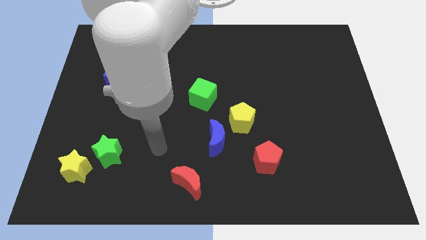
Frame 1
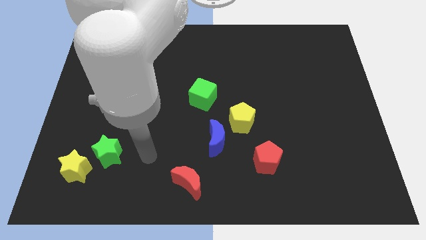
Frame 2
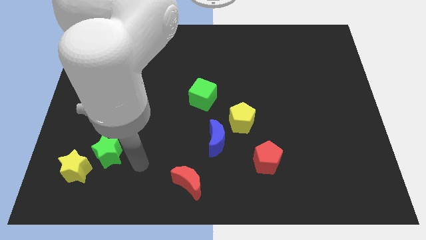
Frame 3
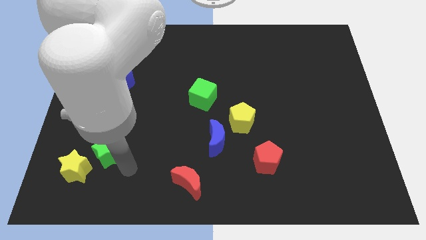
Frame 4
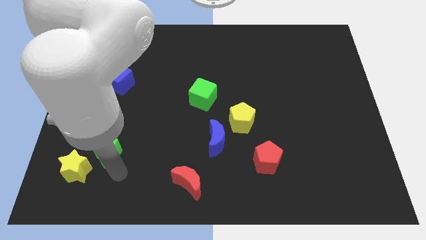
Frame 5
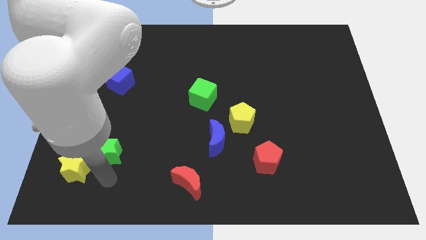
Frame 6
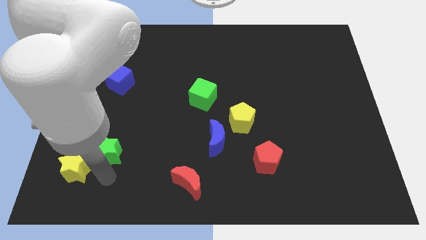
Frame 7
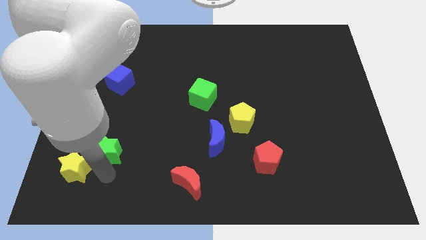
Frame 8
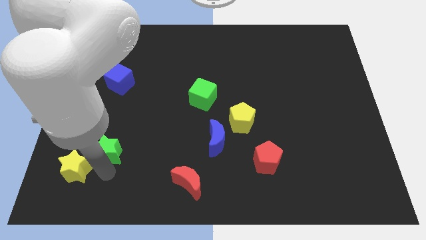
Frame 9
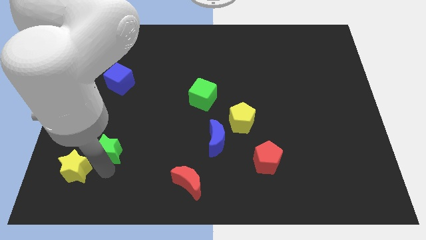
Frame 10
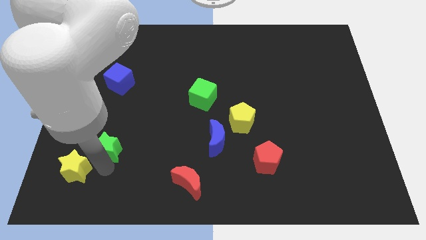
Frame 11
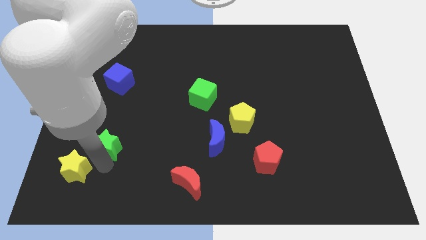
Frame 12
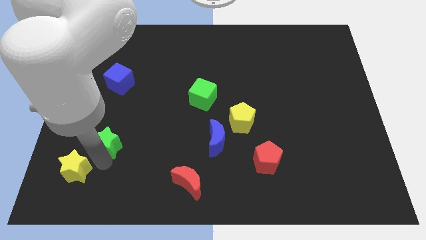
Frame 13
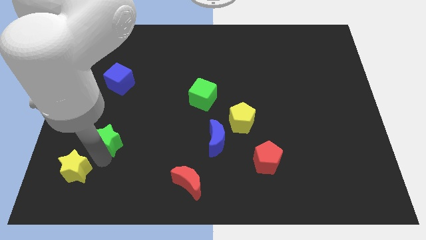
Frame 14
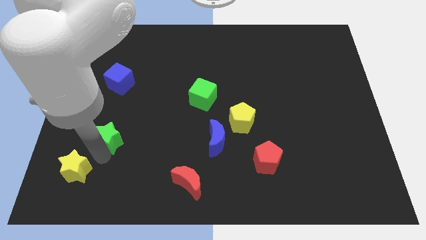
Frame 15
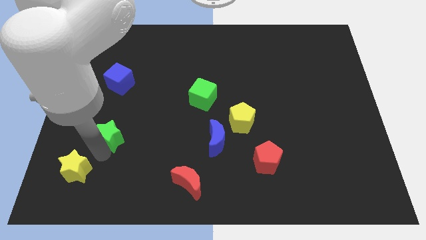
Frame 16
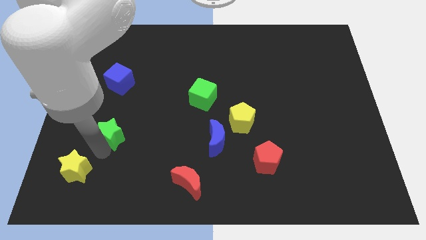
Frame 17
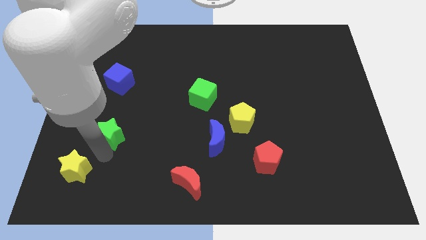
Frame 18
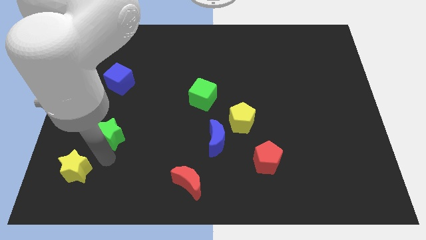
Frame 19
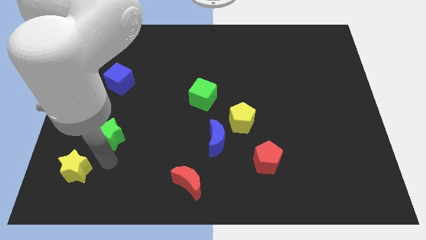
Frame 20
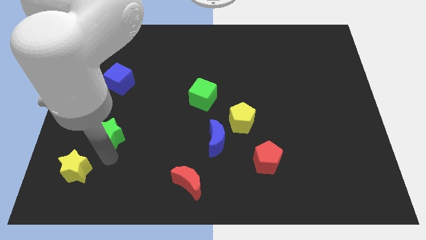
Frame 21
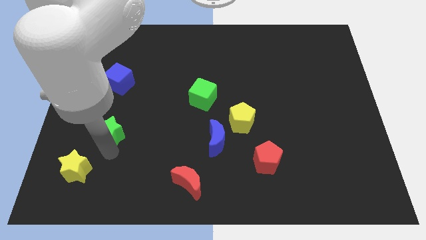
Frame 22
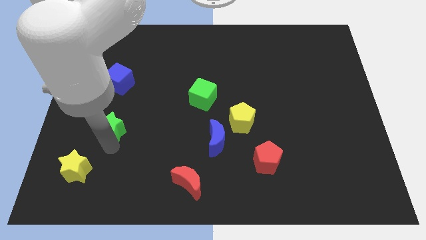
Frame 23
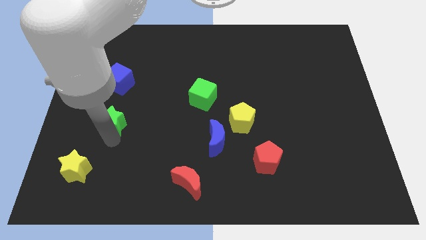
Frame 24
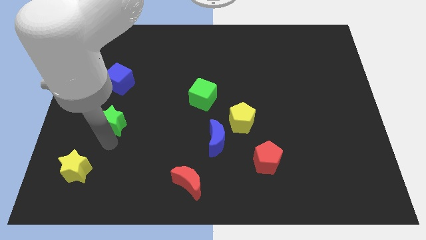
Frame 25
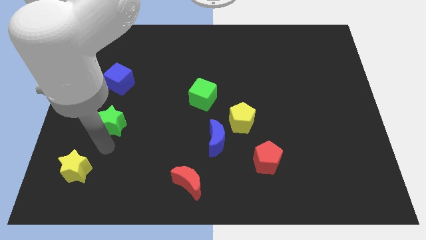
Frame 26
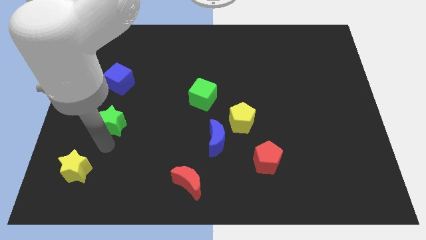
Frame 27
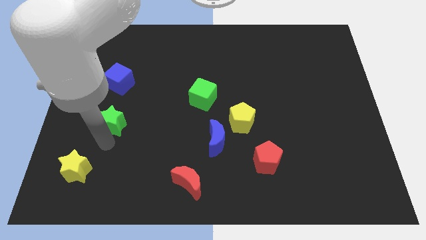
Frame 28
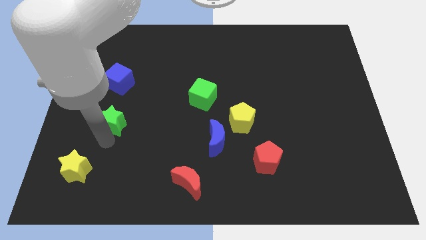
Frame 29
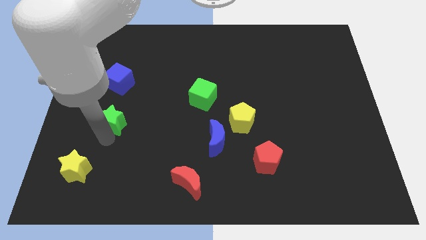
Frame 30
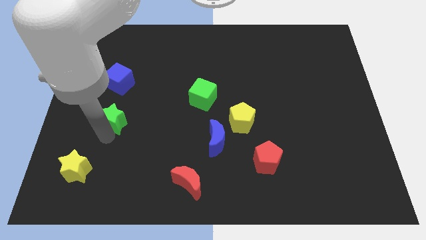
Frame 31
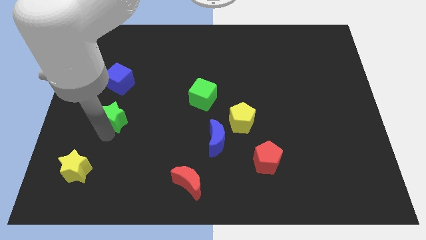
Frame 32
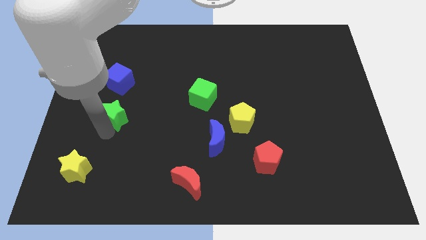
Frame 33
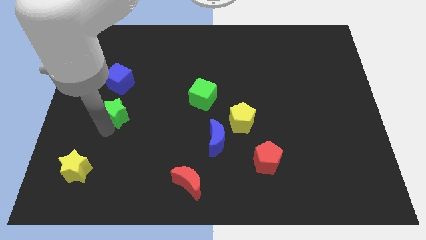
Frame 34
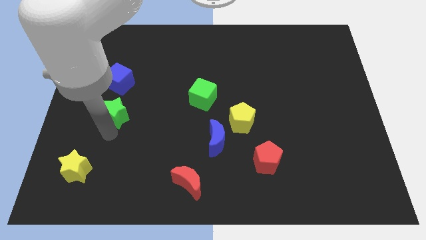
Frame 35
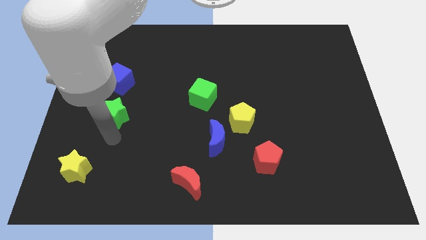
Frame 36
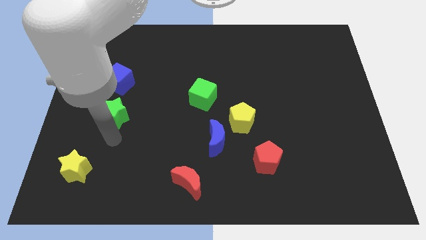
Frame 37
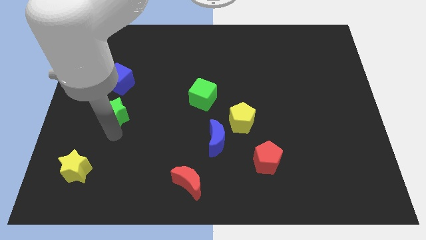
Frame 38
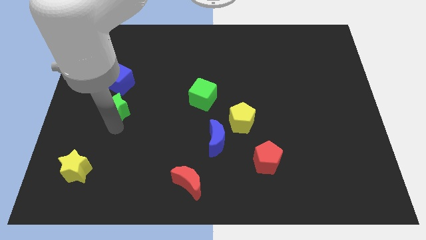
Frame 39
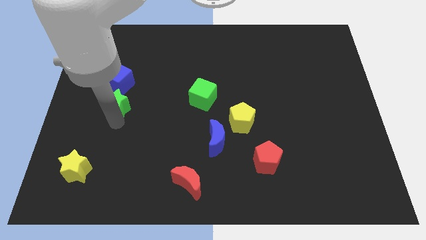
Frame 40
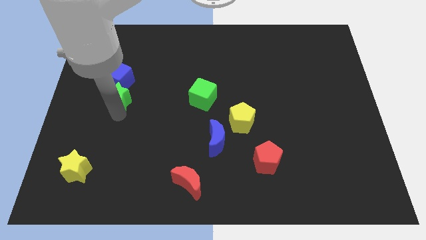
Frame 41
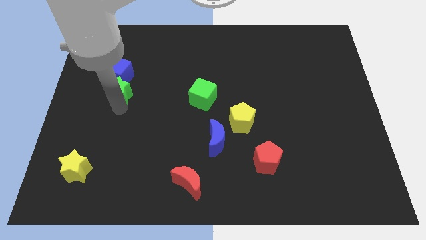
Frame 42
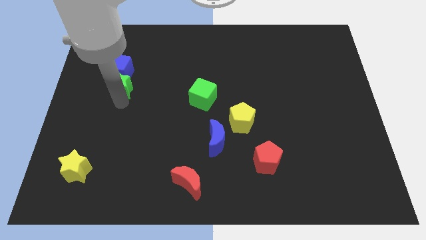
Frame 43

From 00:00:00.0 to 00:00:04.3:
slide the green star towards the blue cube

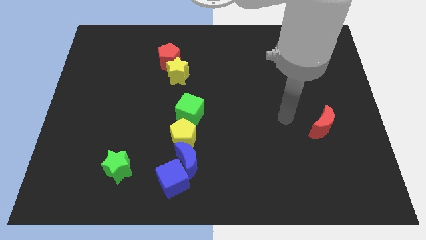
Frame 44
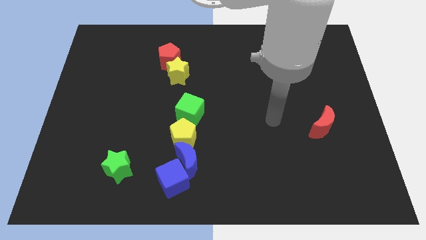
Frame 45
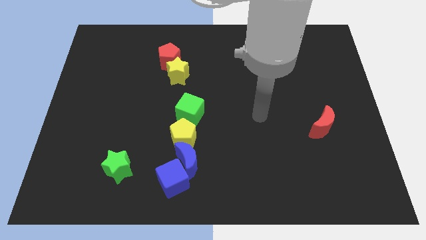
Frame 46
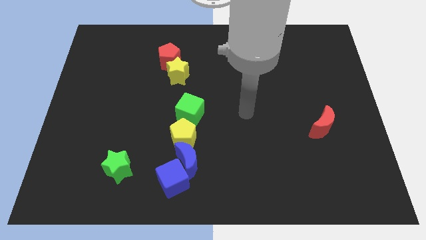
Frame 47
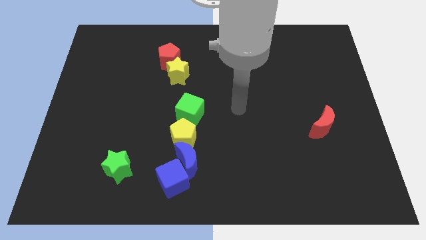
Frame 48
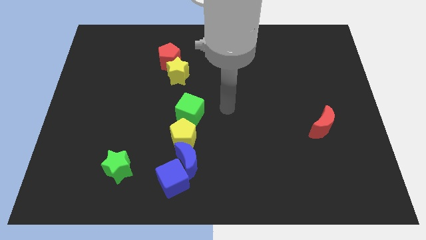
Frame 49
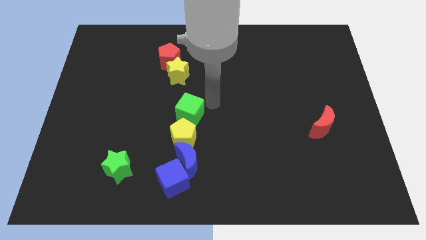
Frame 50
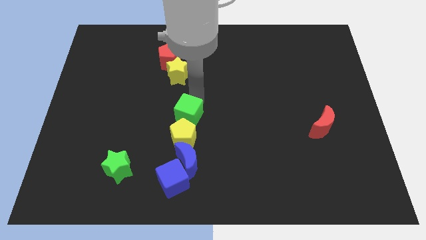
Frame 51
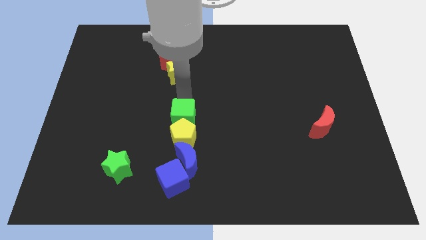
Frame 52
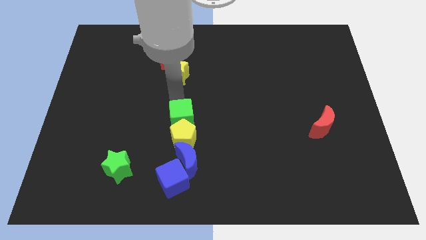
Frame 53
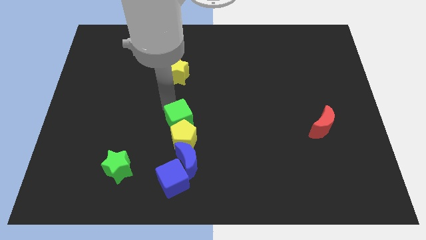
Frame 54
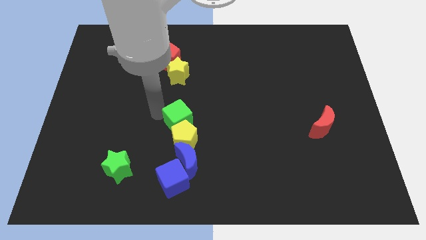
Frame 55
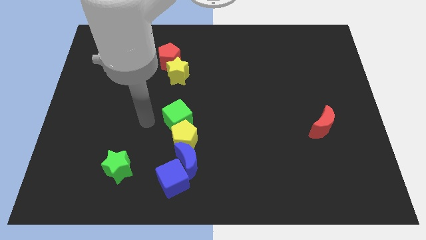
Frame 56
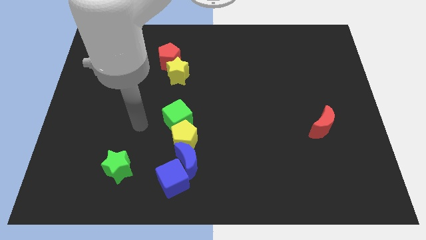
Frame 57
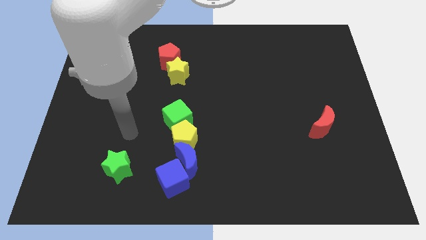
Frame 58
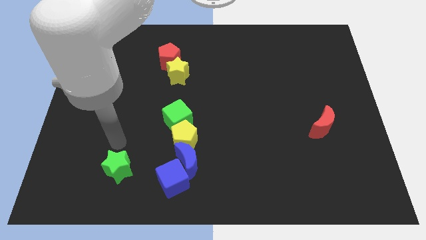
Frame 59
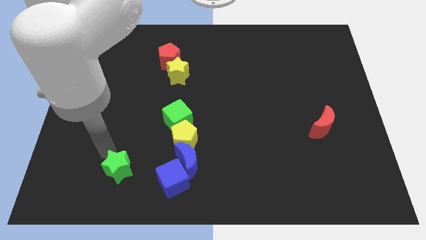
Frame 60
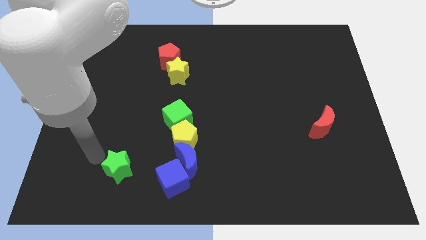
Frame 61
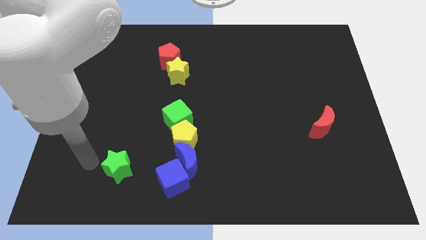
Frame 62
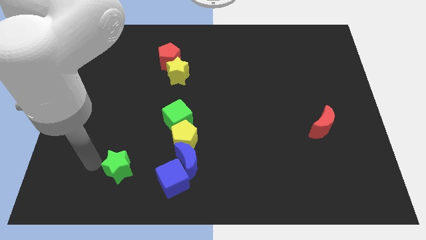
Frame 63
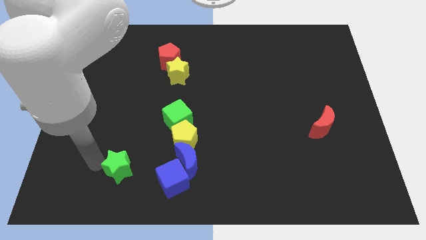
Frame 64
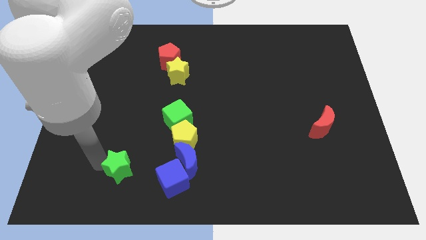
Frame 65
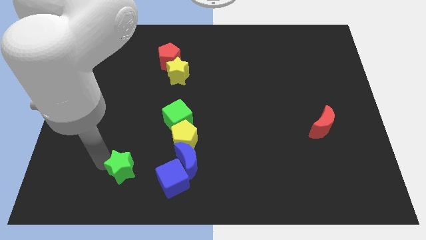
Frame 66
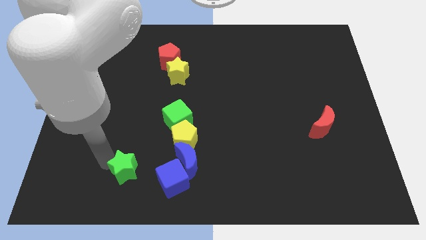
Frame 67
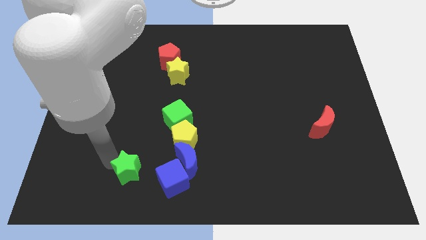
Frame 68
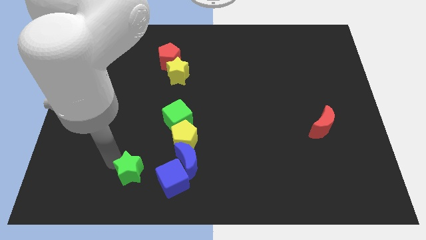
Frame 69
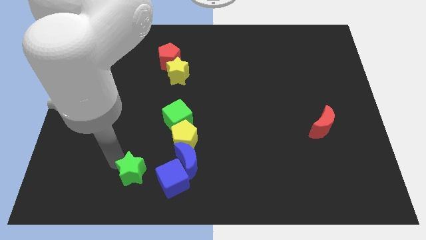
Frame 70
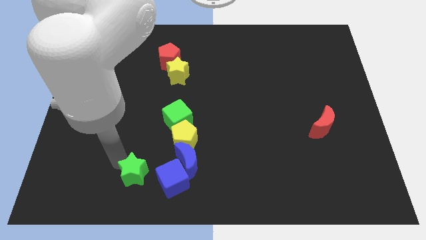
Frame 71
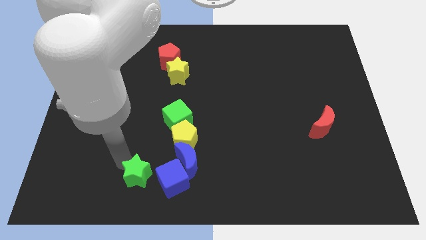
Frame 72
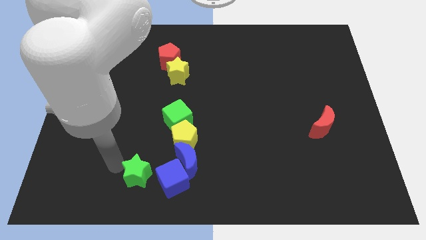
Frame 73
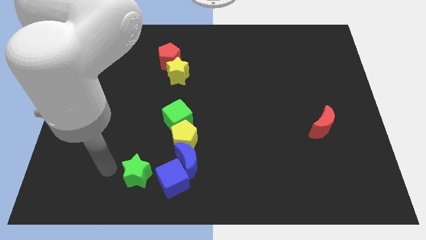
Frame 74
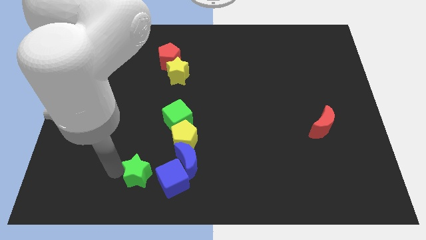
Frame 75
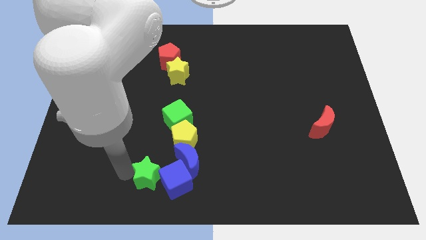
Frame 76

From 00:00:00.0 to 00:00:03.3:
slide the green star to the blue cube
